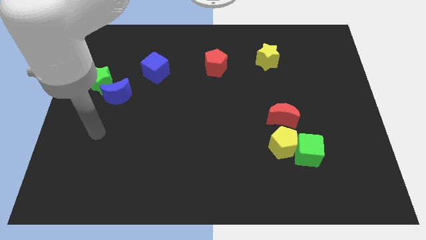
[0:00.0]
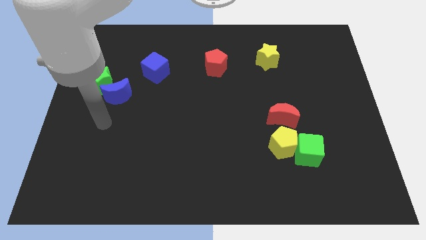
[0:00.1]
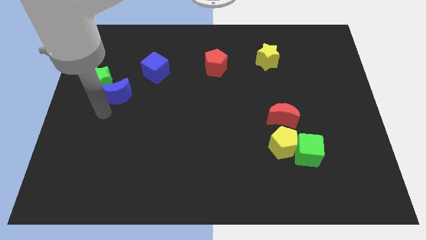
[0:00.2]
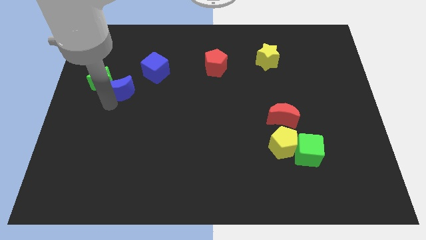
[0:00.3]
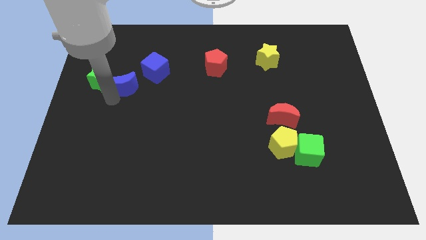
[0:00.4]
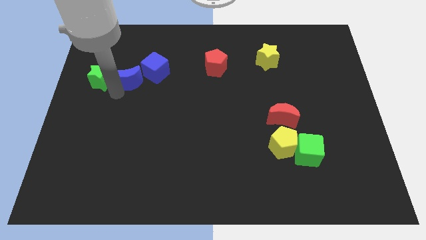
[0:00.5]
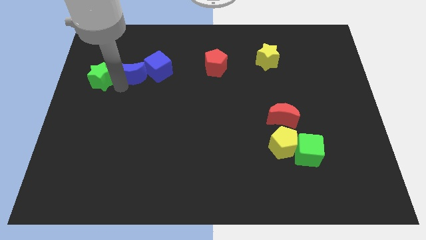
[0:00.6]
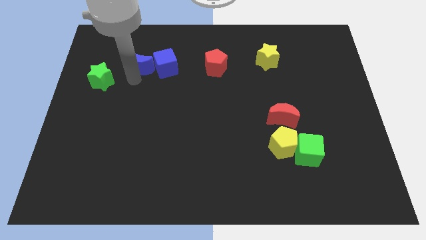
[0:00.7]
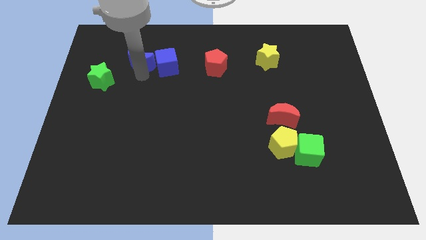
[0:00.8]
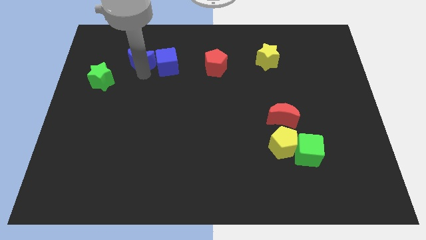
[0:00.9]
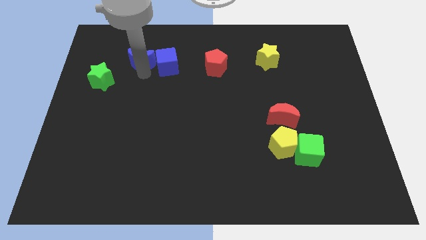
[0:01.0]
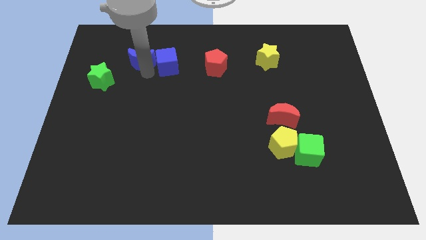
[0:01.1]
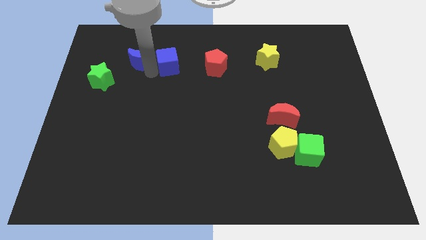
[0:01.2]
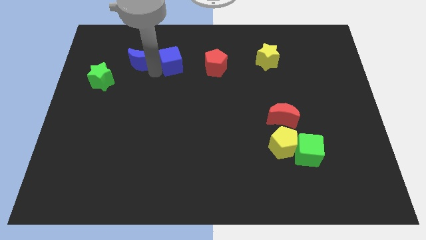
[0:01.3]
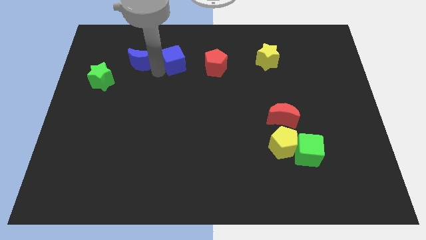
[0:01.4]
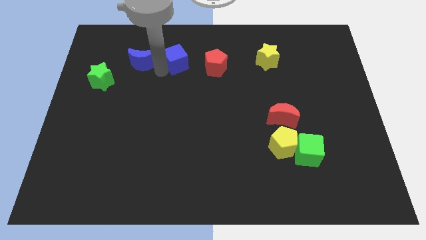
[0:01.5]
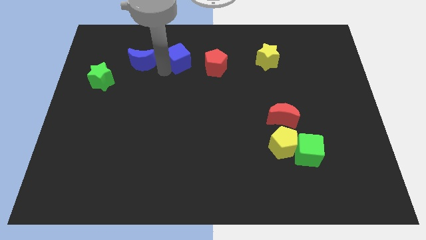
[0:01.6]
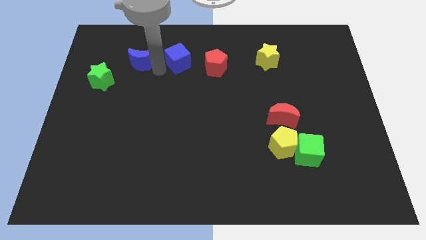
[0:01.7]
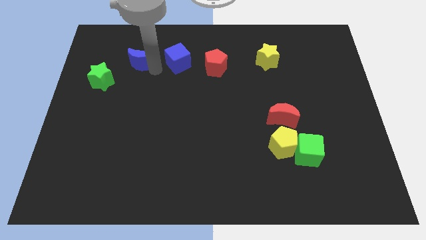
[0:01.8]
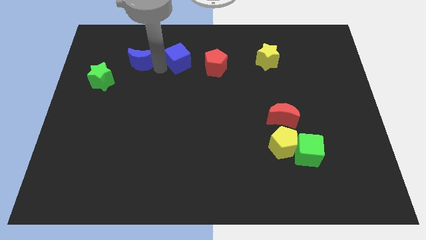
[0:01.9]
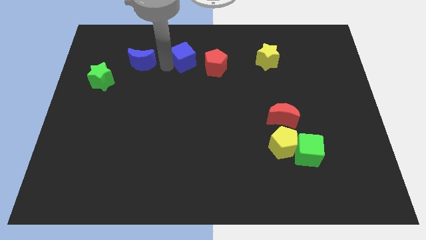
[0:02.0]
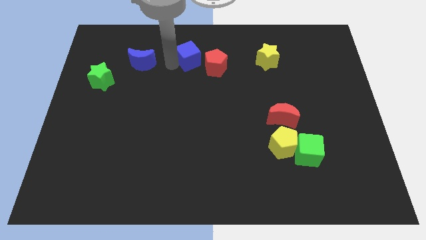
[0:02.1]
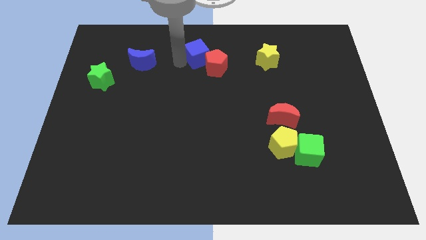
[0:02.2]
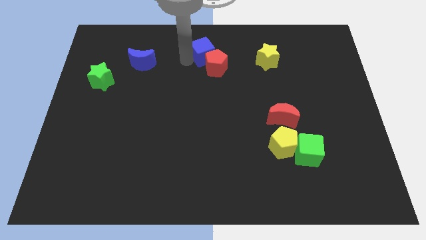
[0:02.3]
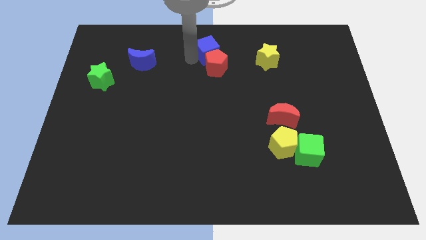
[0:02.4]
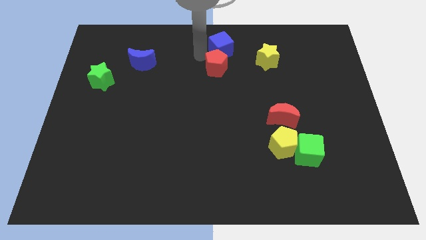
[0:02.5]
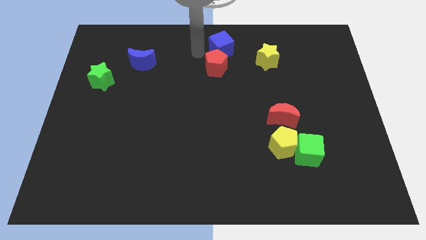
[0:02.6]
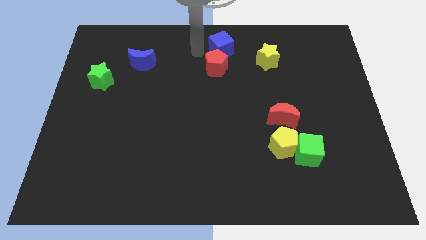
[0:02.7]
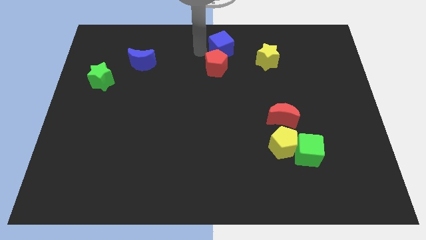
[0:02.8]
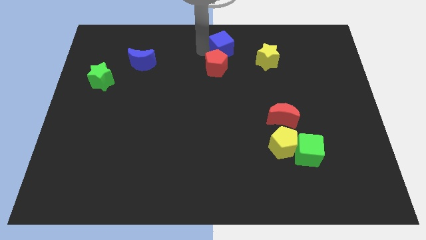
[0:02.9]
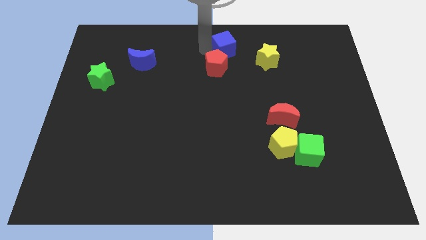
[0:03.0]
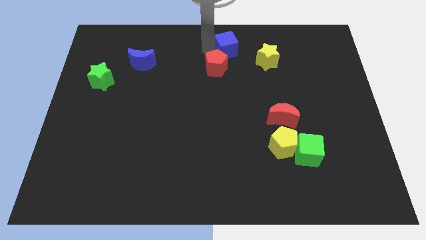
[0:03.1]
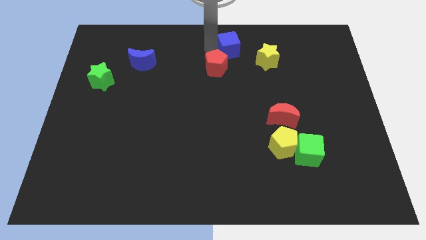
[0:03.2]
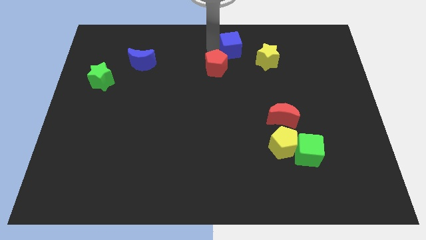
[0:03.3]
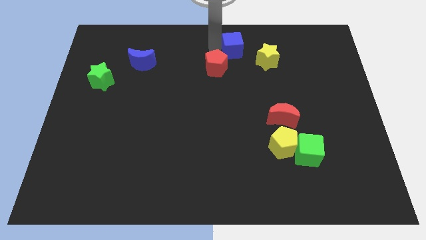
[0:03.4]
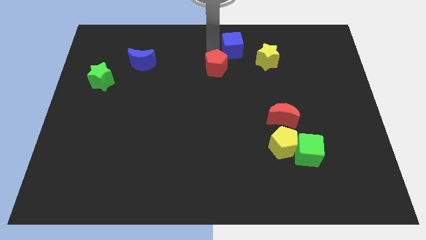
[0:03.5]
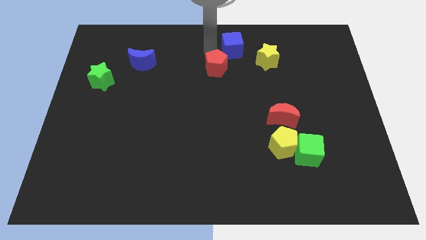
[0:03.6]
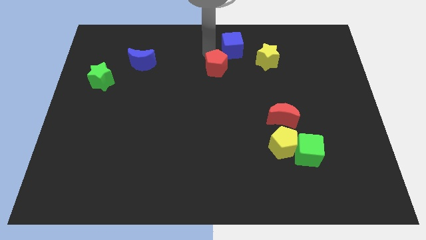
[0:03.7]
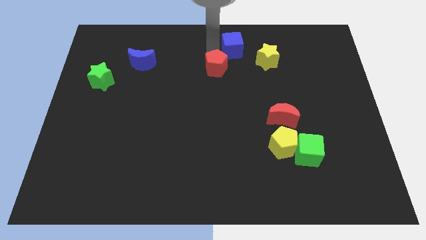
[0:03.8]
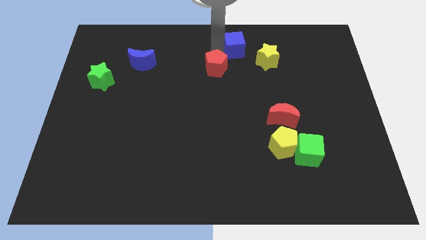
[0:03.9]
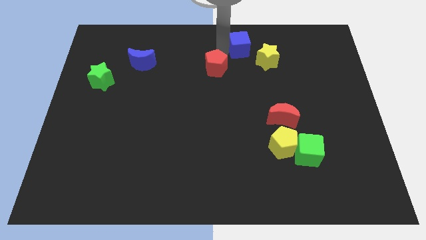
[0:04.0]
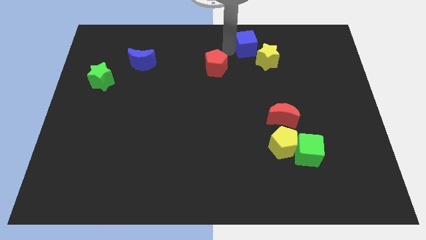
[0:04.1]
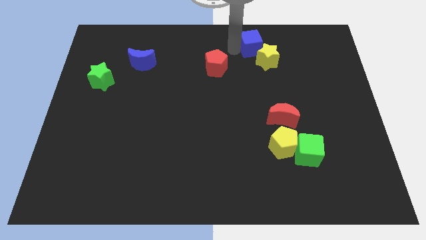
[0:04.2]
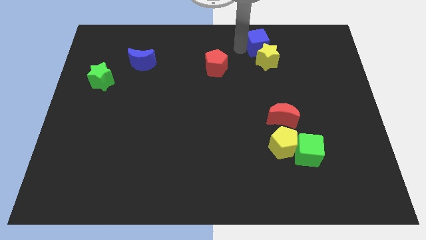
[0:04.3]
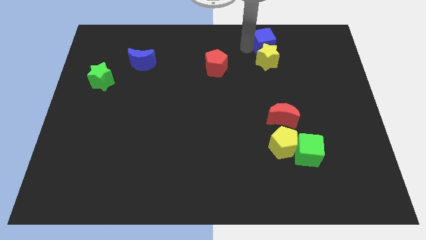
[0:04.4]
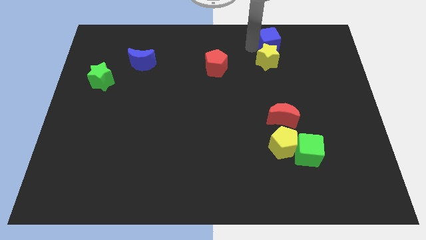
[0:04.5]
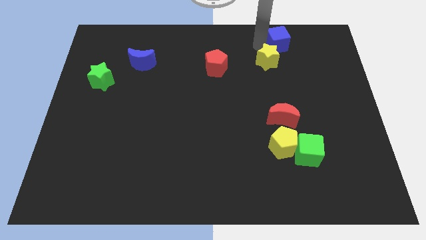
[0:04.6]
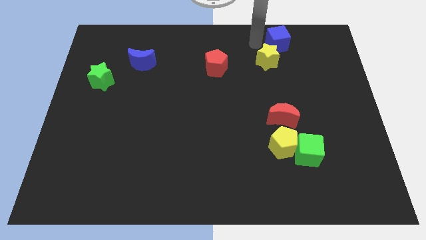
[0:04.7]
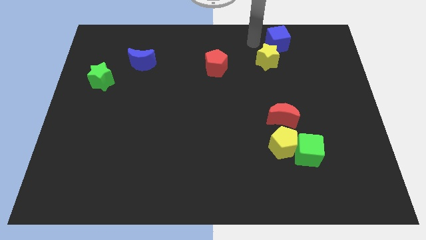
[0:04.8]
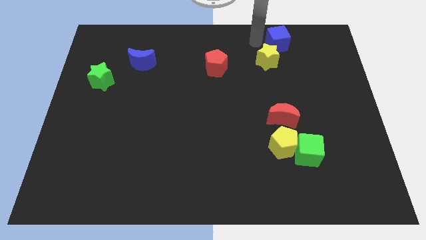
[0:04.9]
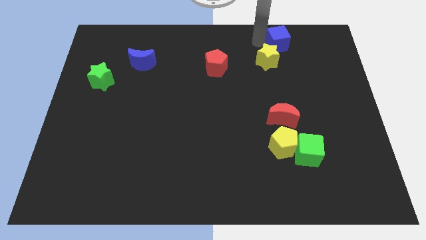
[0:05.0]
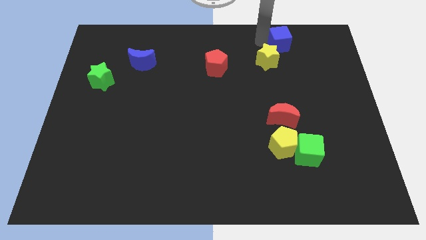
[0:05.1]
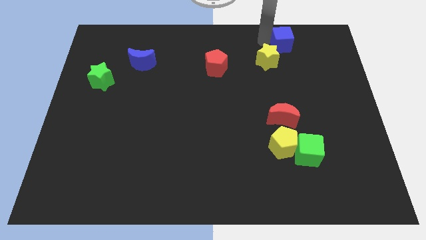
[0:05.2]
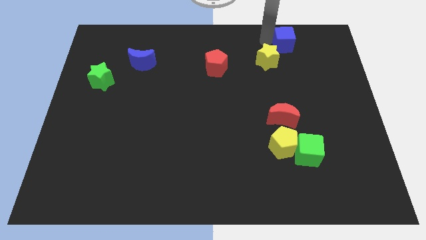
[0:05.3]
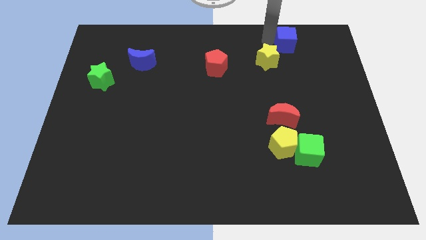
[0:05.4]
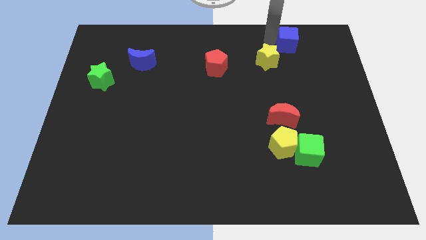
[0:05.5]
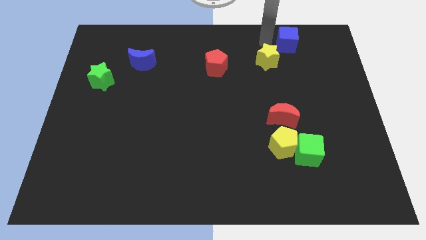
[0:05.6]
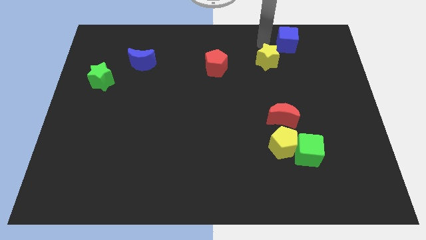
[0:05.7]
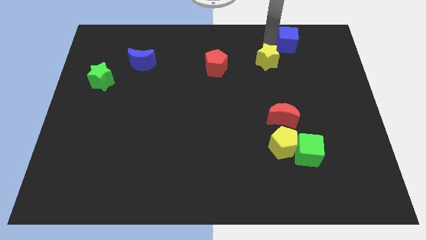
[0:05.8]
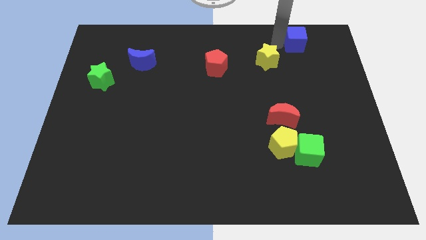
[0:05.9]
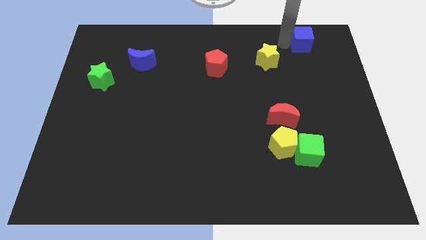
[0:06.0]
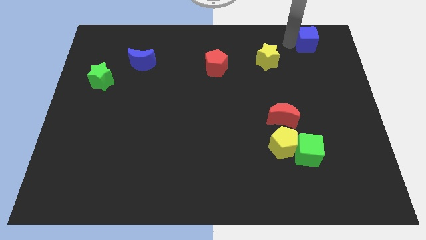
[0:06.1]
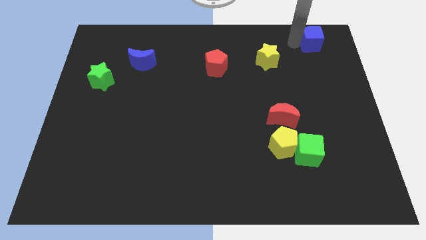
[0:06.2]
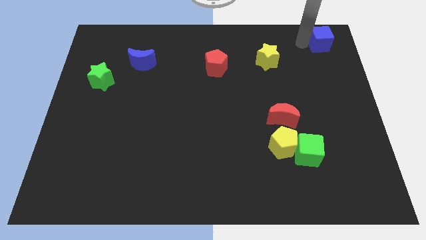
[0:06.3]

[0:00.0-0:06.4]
move the blue cube to the top right of the board
